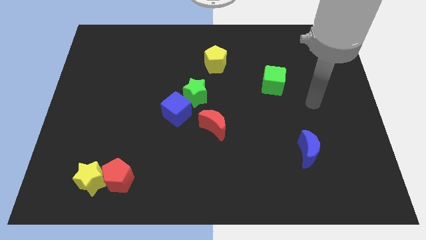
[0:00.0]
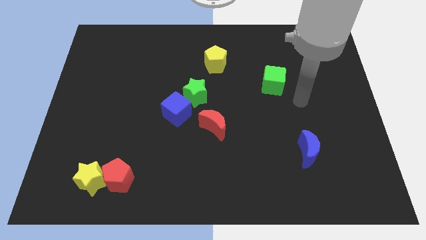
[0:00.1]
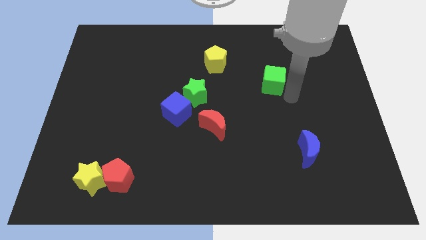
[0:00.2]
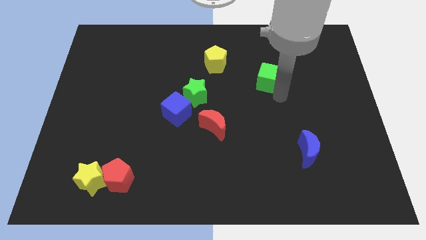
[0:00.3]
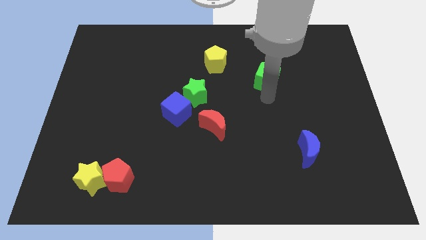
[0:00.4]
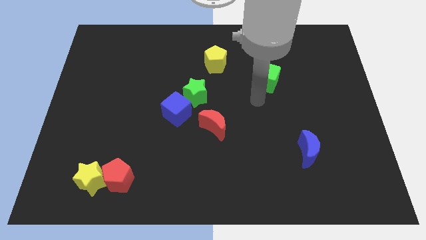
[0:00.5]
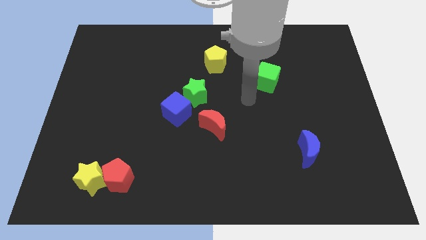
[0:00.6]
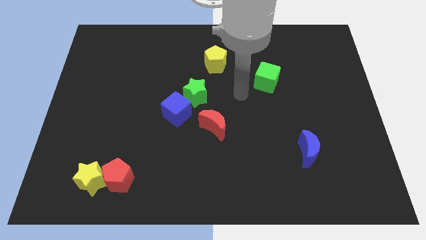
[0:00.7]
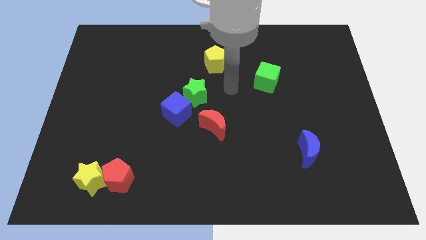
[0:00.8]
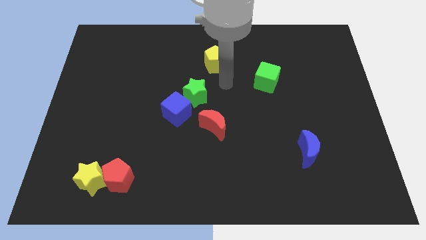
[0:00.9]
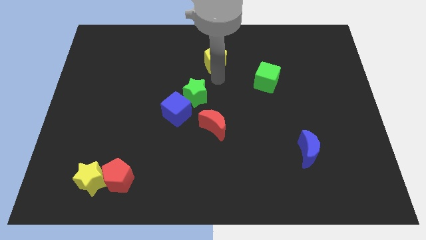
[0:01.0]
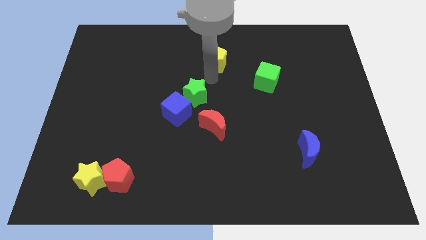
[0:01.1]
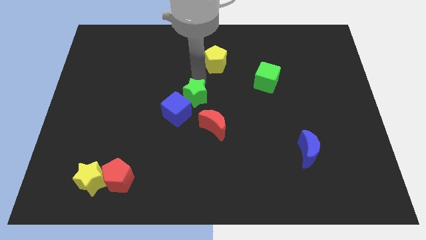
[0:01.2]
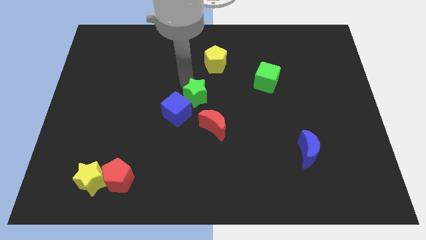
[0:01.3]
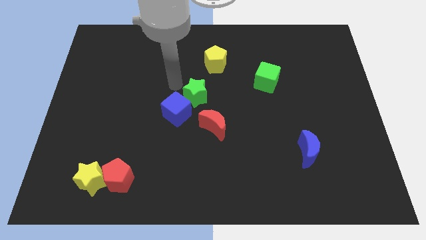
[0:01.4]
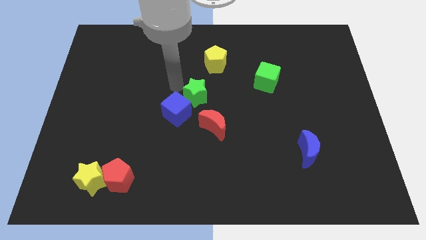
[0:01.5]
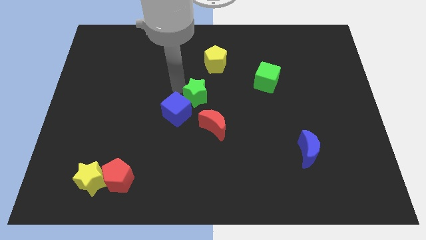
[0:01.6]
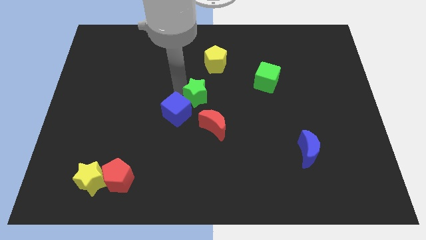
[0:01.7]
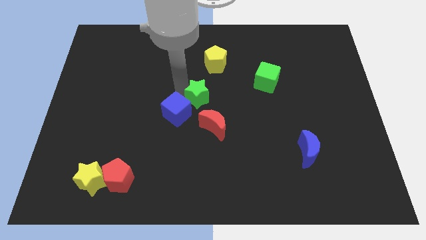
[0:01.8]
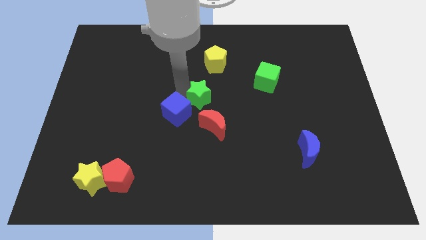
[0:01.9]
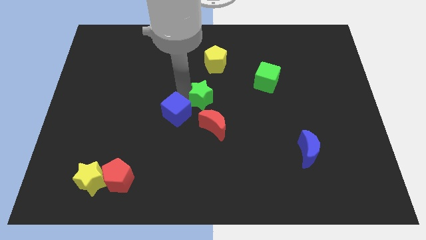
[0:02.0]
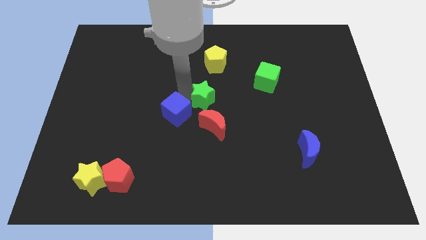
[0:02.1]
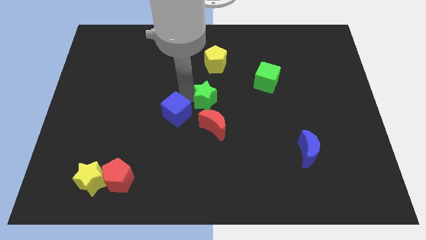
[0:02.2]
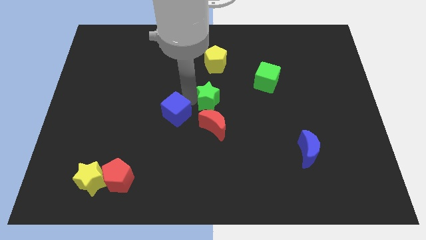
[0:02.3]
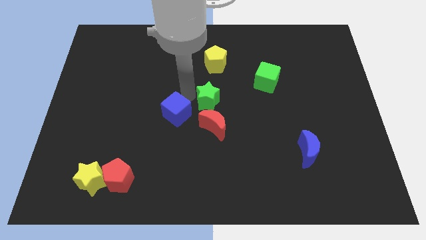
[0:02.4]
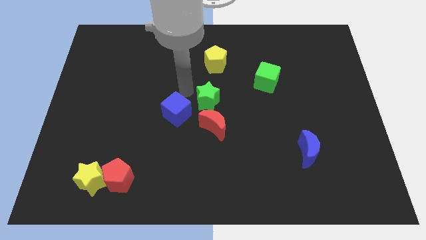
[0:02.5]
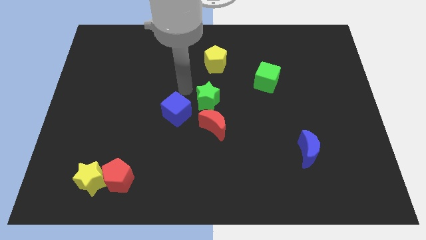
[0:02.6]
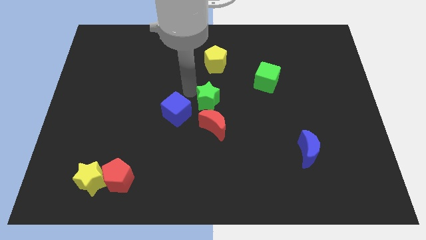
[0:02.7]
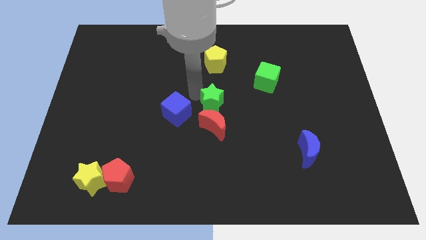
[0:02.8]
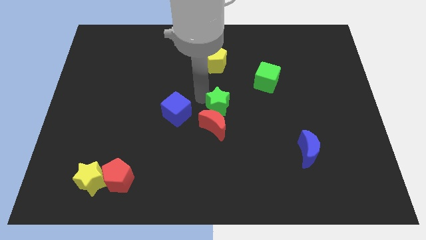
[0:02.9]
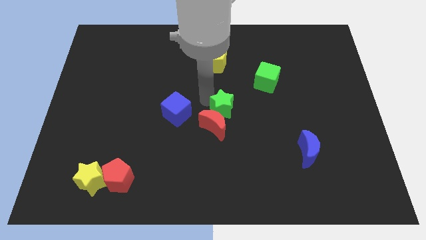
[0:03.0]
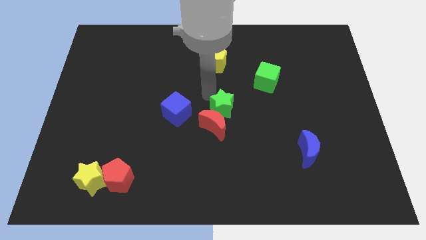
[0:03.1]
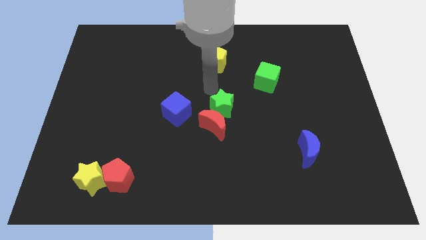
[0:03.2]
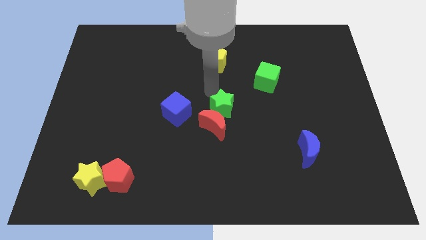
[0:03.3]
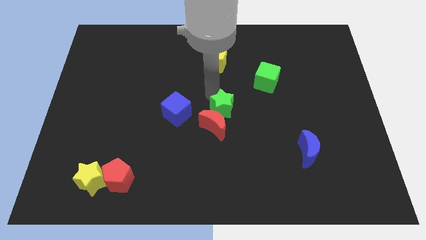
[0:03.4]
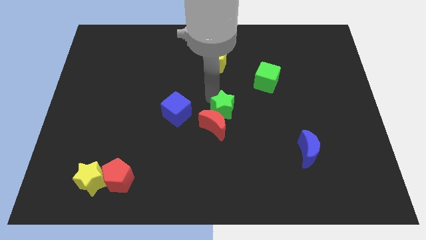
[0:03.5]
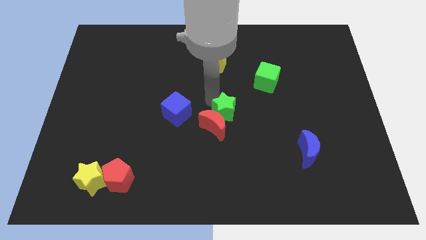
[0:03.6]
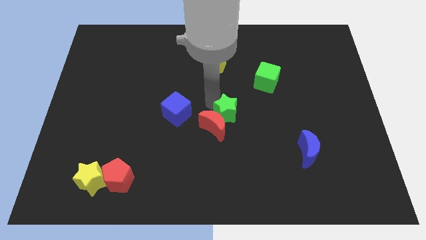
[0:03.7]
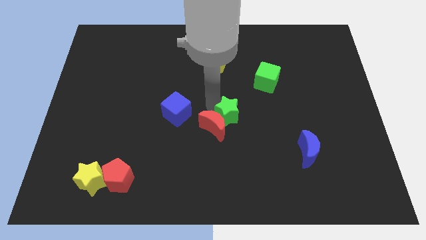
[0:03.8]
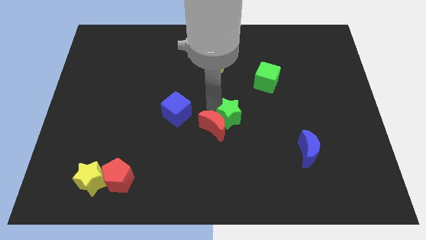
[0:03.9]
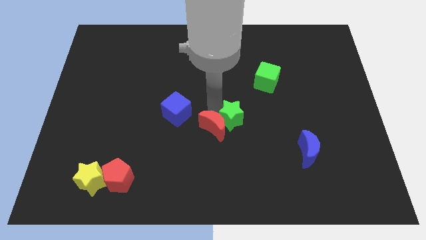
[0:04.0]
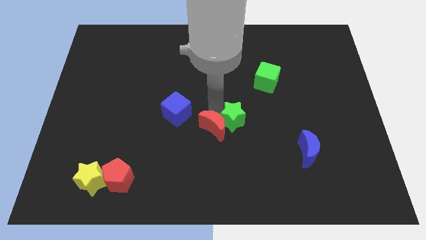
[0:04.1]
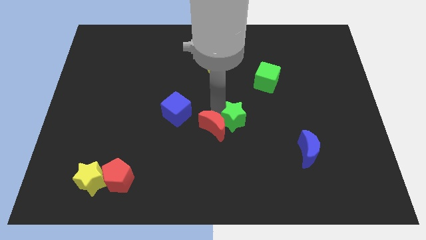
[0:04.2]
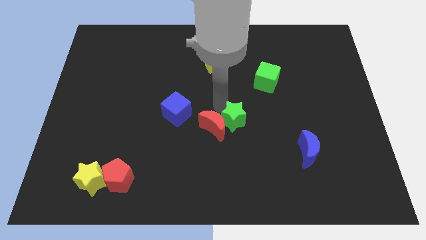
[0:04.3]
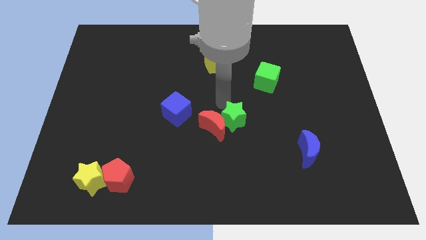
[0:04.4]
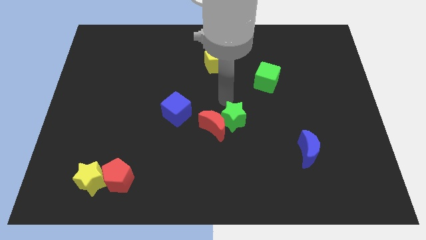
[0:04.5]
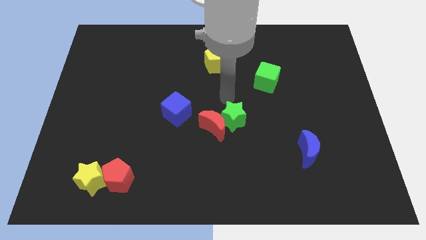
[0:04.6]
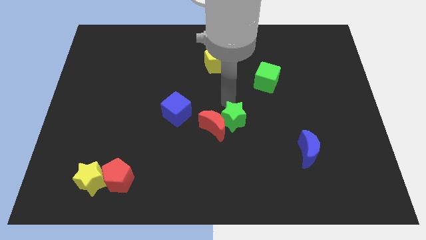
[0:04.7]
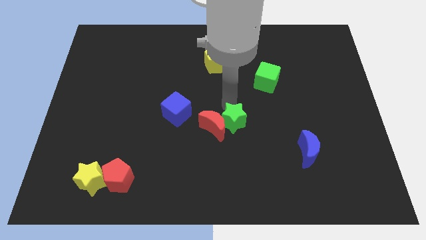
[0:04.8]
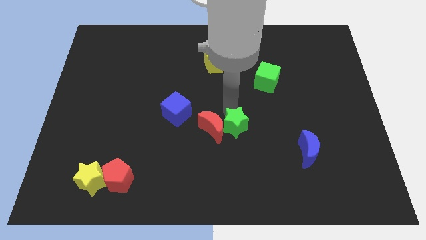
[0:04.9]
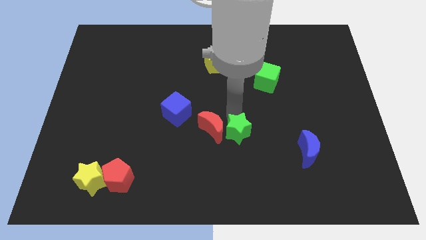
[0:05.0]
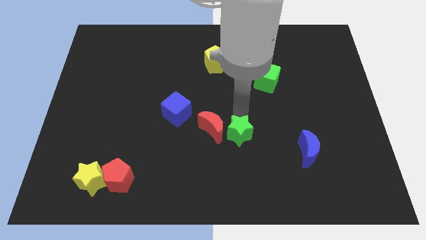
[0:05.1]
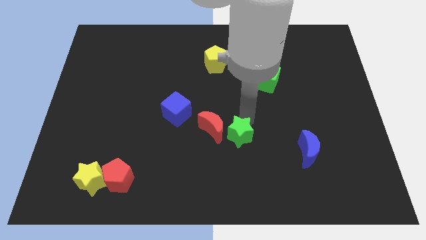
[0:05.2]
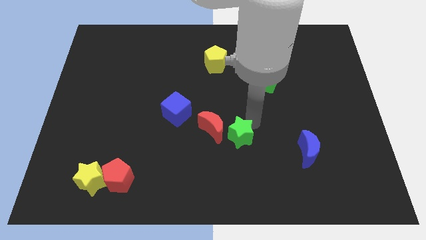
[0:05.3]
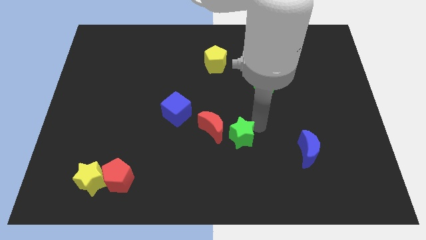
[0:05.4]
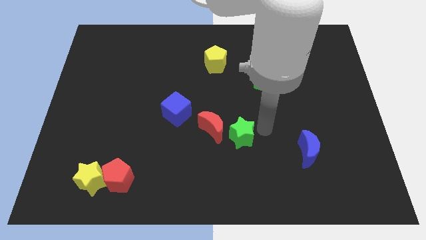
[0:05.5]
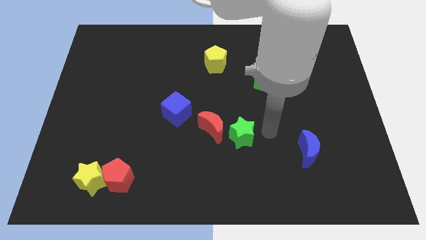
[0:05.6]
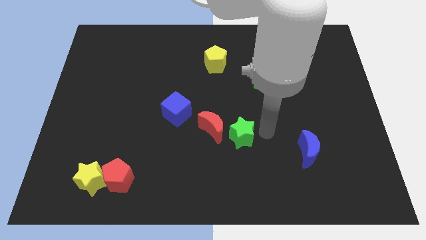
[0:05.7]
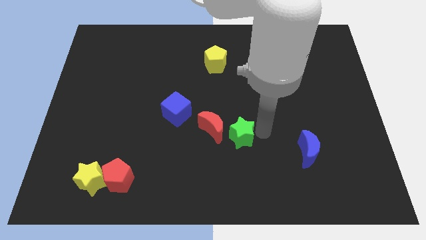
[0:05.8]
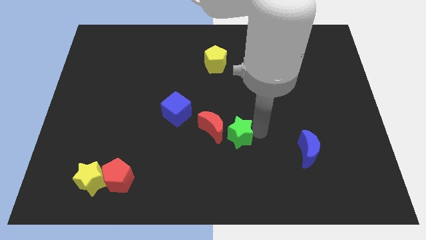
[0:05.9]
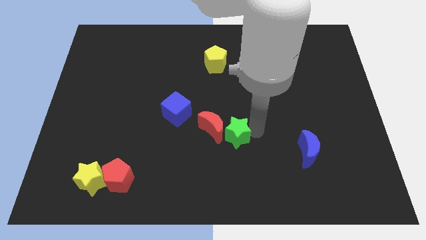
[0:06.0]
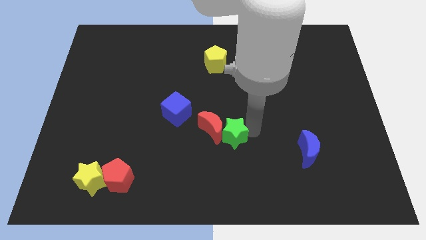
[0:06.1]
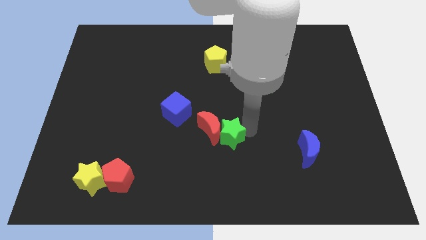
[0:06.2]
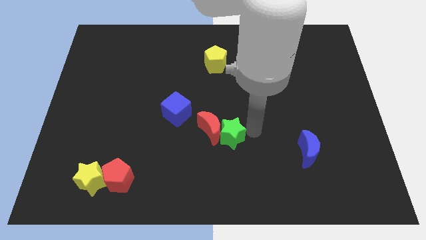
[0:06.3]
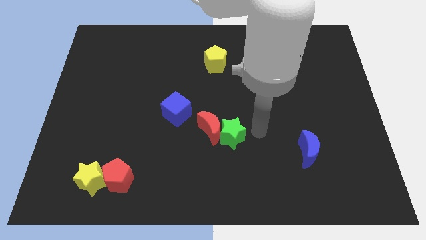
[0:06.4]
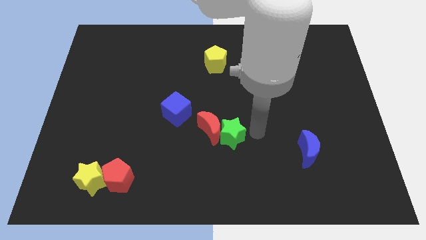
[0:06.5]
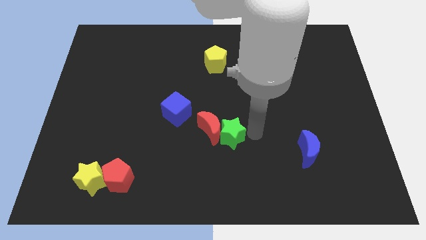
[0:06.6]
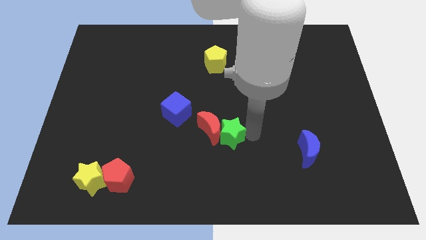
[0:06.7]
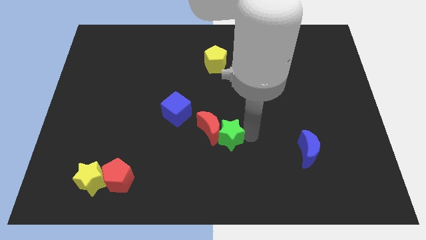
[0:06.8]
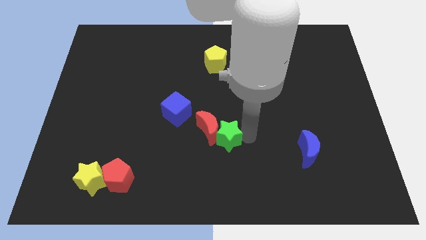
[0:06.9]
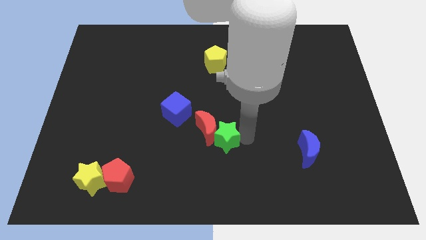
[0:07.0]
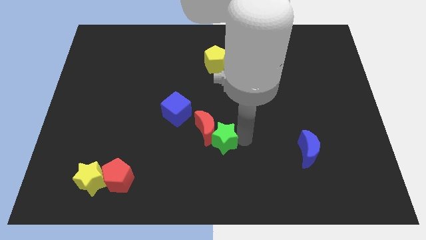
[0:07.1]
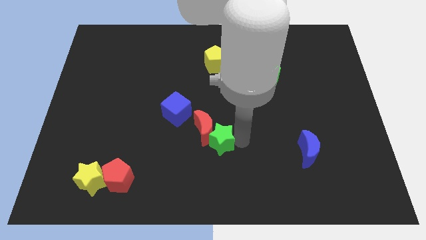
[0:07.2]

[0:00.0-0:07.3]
move the green star to the bottom right side of the blue cube

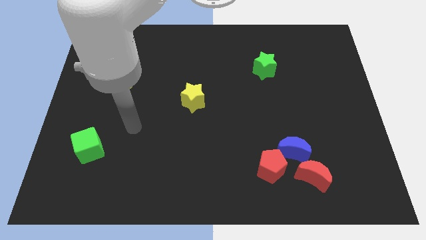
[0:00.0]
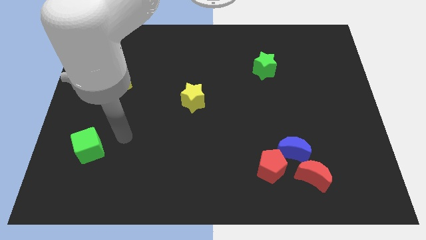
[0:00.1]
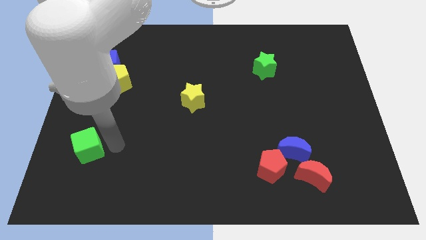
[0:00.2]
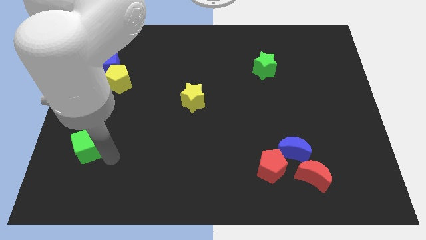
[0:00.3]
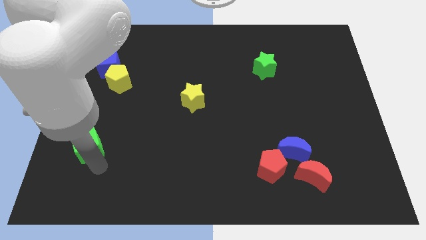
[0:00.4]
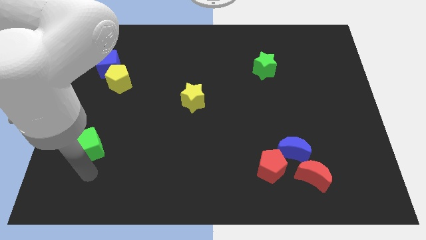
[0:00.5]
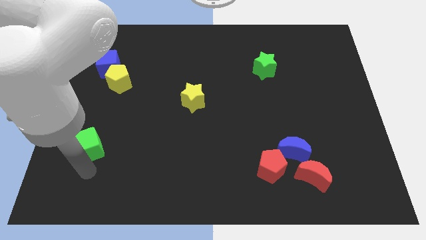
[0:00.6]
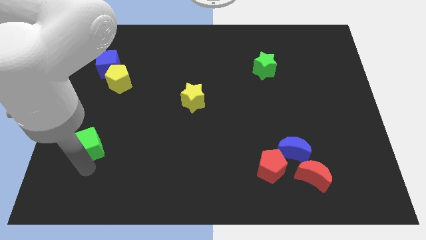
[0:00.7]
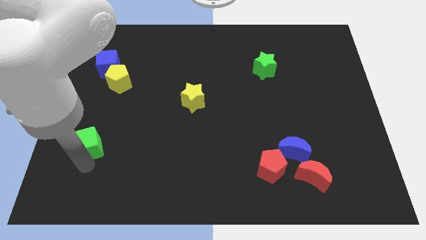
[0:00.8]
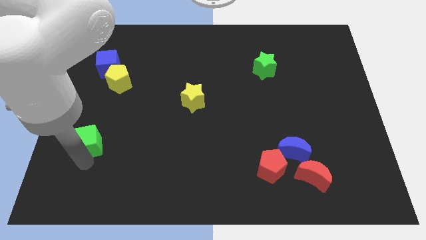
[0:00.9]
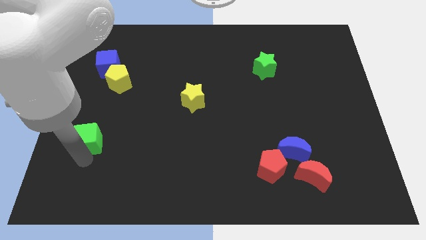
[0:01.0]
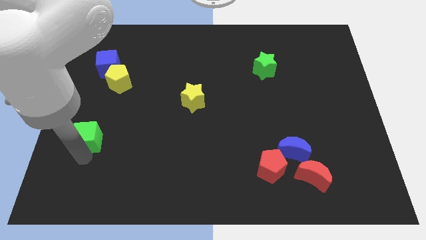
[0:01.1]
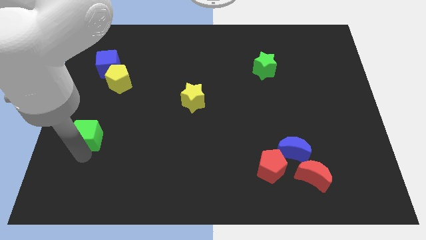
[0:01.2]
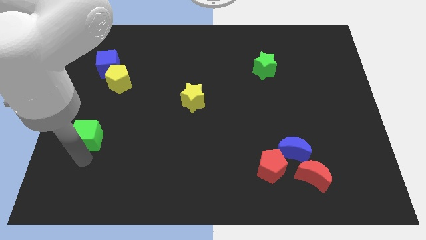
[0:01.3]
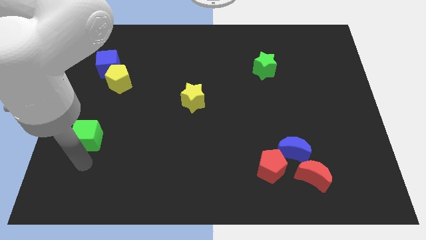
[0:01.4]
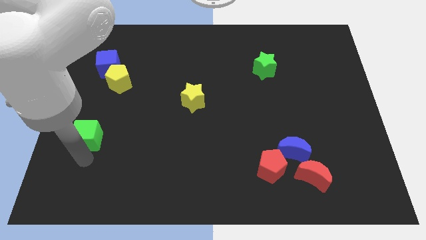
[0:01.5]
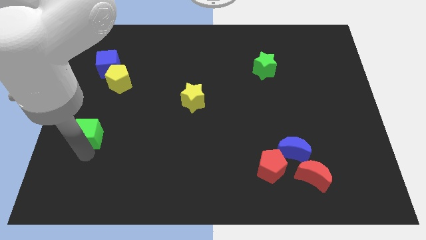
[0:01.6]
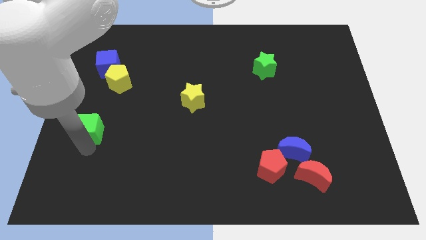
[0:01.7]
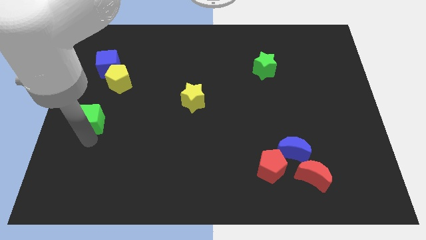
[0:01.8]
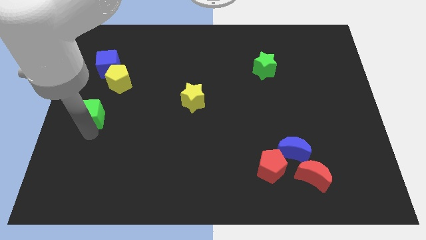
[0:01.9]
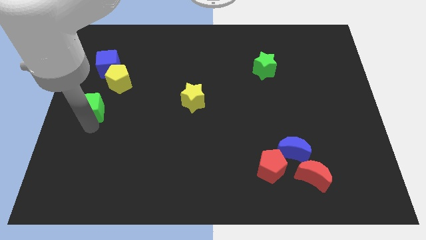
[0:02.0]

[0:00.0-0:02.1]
push the green cube to the bottom left side of the yellow pentagon
